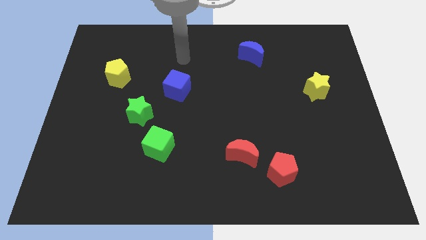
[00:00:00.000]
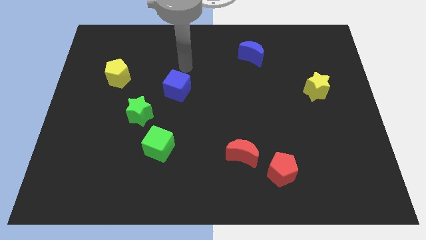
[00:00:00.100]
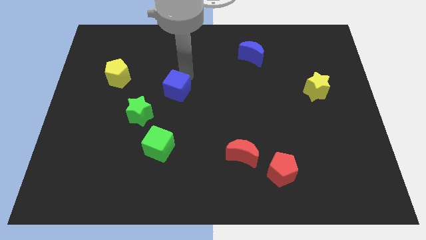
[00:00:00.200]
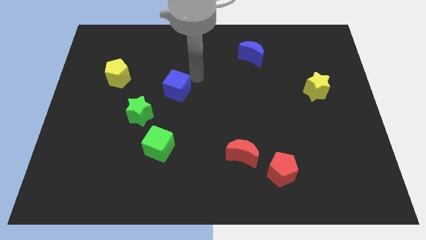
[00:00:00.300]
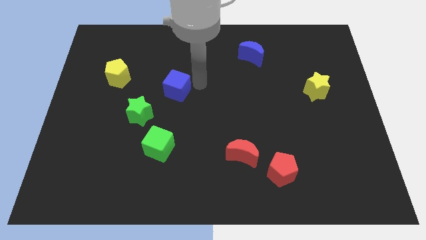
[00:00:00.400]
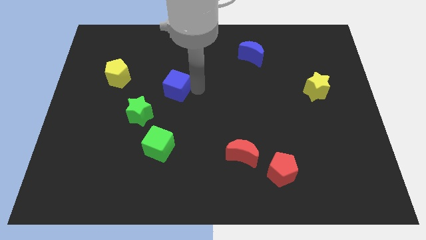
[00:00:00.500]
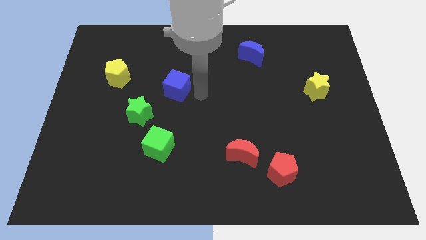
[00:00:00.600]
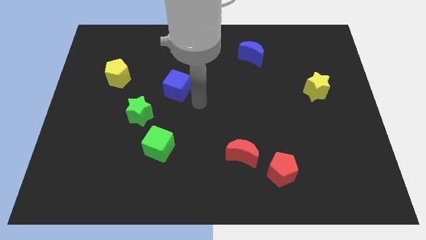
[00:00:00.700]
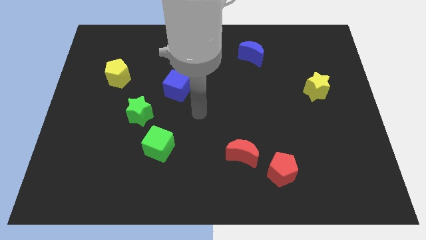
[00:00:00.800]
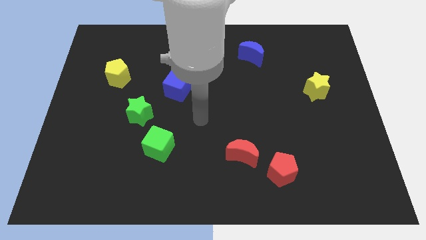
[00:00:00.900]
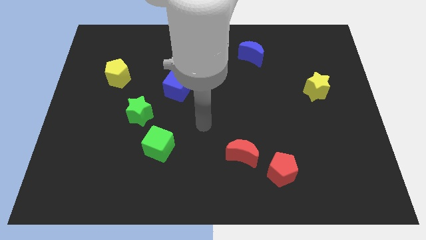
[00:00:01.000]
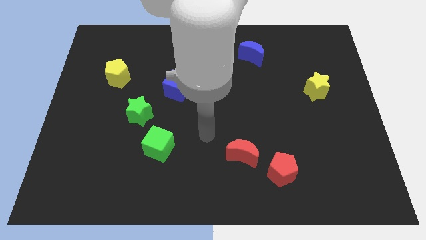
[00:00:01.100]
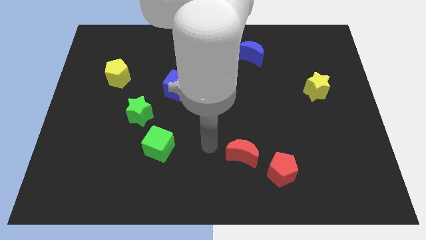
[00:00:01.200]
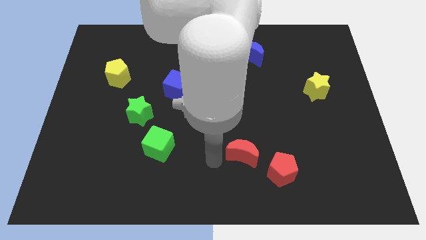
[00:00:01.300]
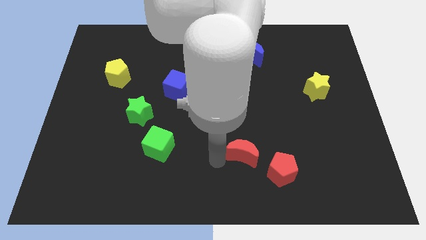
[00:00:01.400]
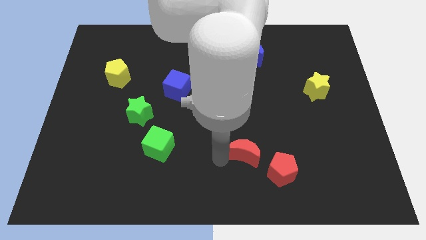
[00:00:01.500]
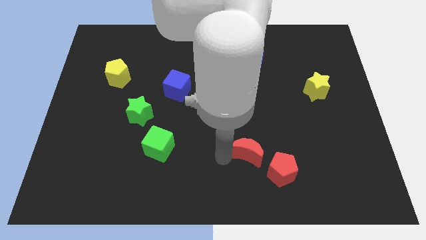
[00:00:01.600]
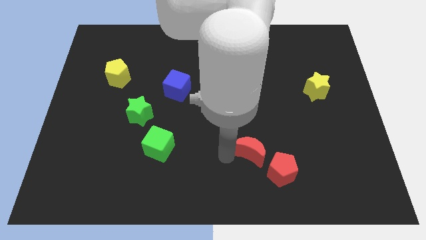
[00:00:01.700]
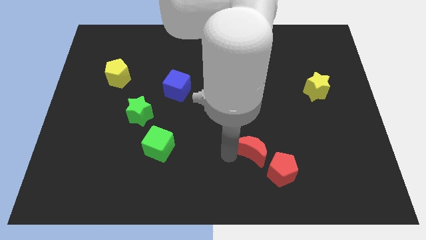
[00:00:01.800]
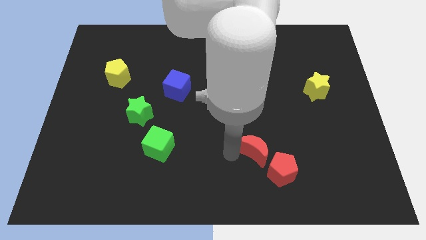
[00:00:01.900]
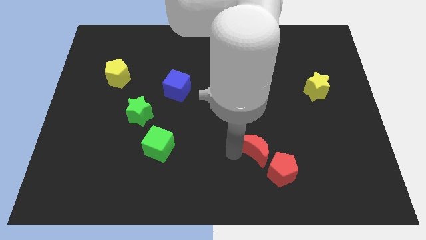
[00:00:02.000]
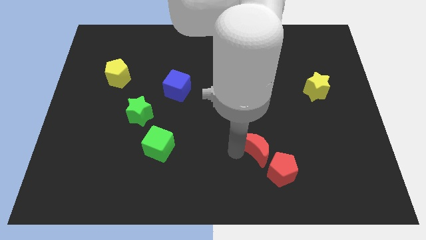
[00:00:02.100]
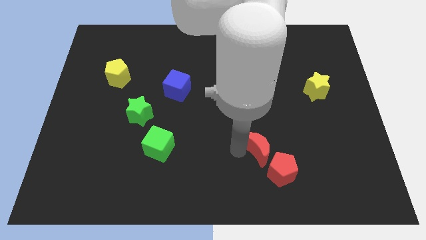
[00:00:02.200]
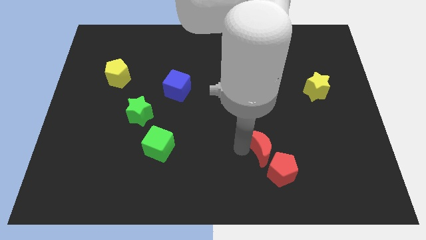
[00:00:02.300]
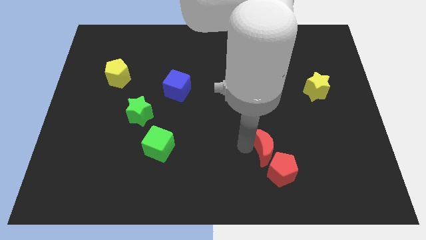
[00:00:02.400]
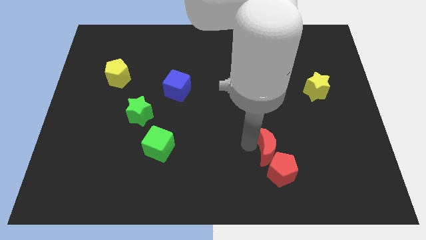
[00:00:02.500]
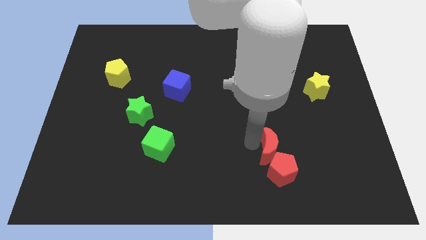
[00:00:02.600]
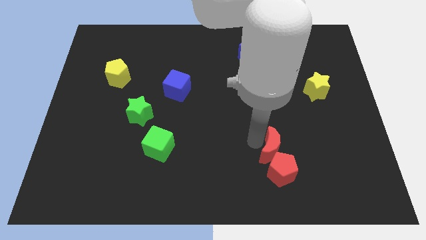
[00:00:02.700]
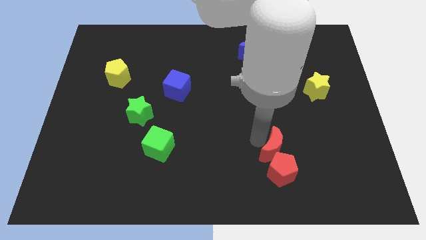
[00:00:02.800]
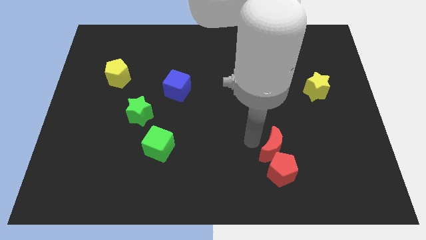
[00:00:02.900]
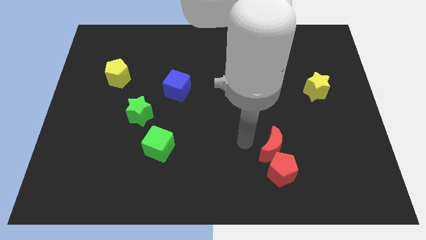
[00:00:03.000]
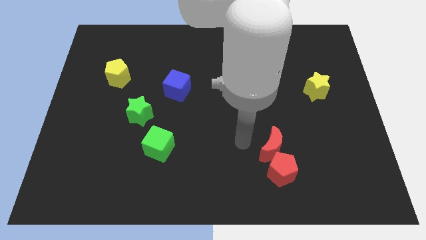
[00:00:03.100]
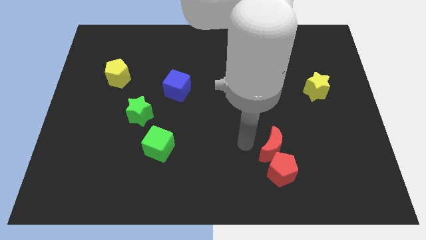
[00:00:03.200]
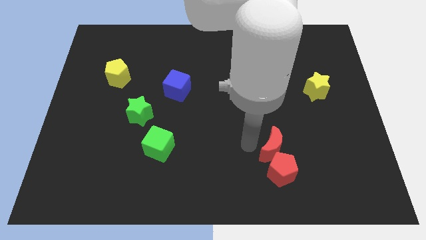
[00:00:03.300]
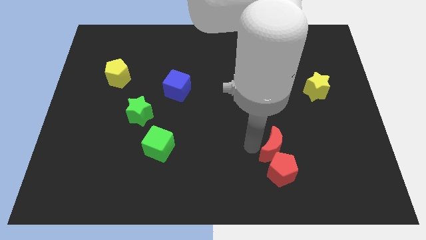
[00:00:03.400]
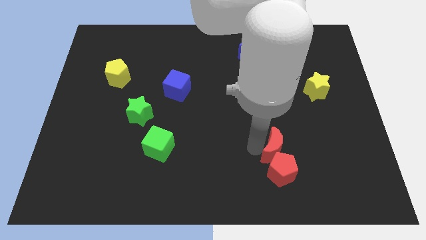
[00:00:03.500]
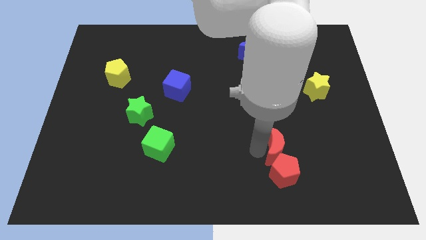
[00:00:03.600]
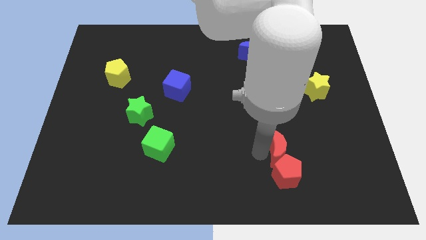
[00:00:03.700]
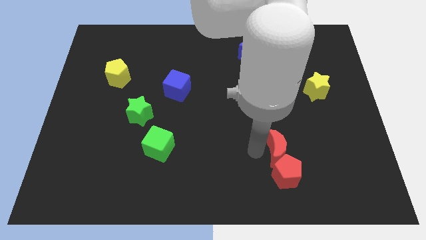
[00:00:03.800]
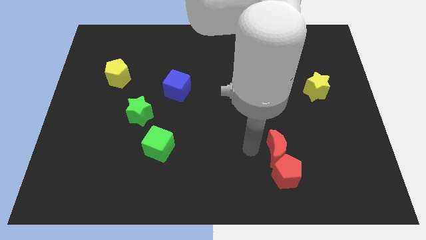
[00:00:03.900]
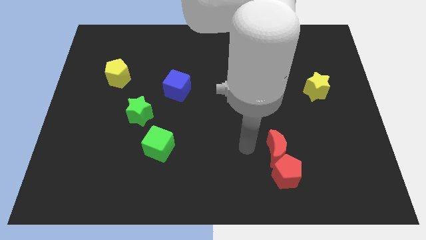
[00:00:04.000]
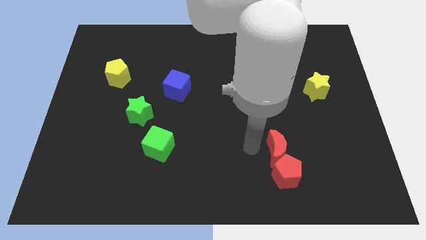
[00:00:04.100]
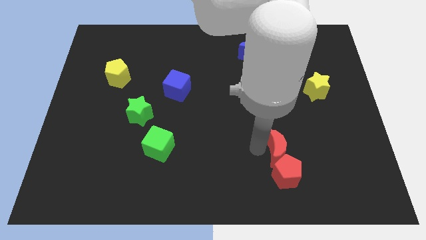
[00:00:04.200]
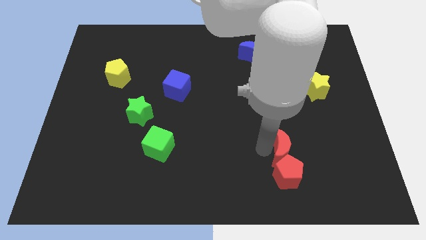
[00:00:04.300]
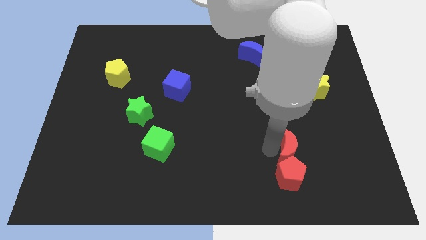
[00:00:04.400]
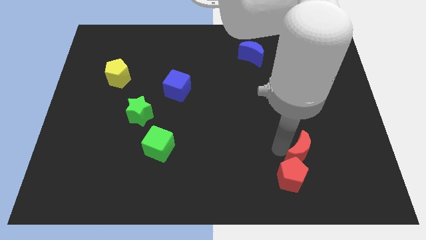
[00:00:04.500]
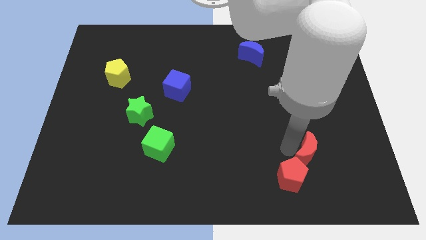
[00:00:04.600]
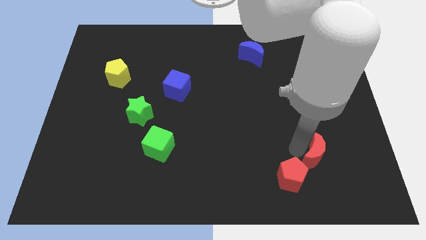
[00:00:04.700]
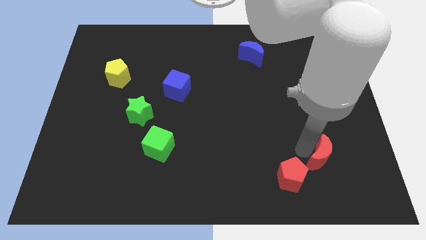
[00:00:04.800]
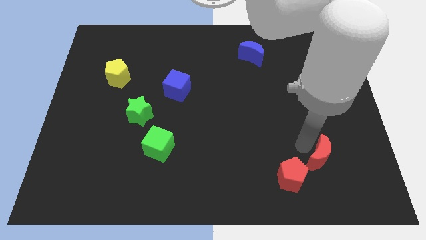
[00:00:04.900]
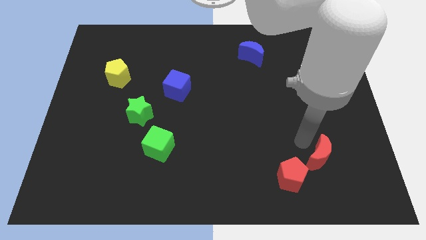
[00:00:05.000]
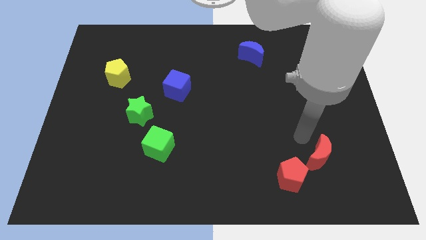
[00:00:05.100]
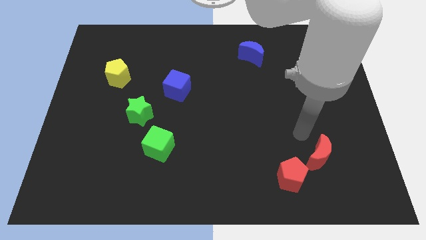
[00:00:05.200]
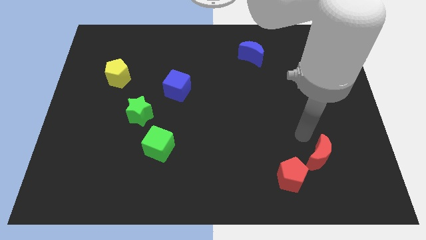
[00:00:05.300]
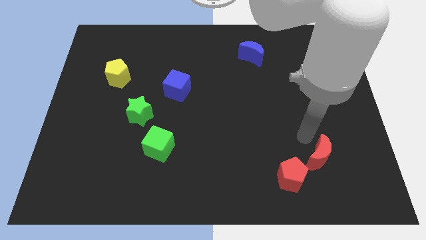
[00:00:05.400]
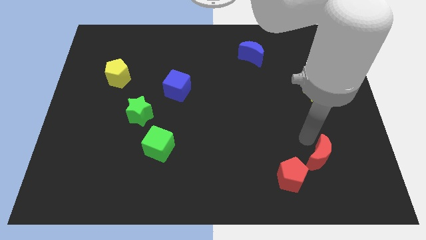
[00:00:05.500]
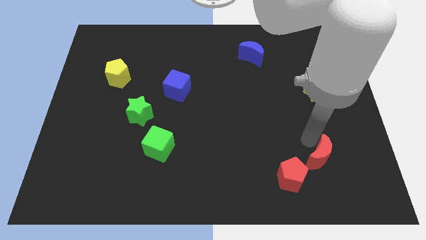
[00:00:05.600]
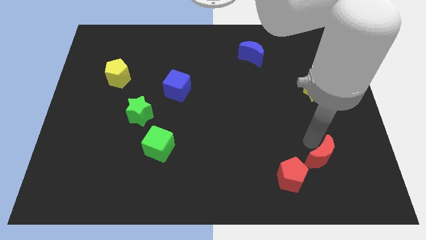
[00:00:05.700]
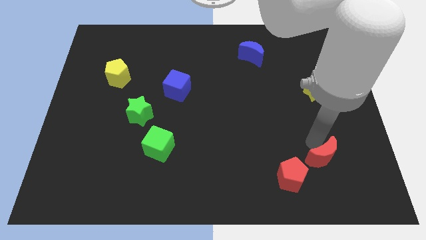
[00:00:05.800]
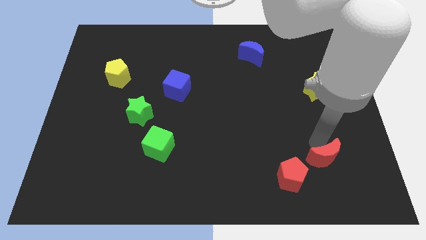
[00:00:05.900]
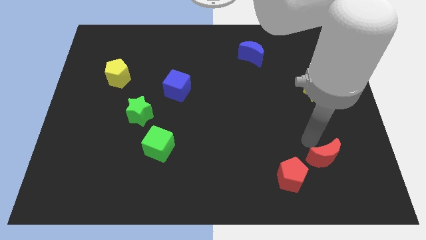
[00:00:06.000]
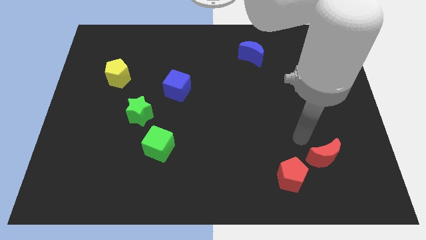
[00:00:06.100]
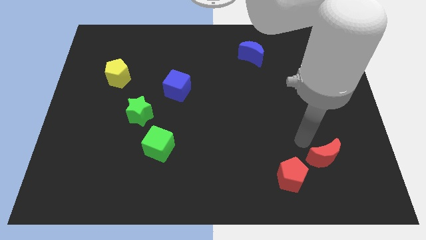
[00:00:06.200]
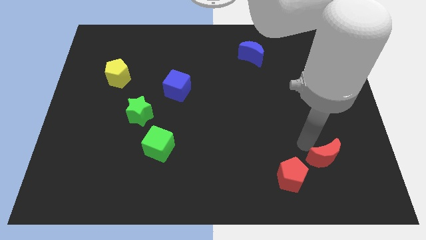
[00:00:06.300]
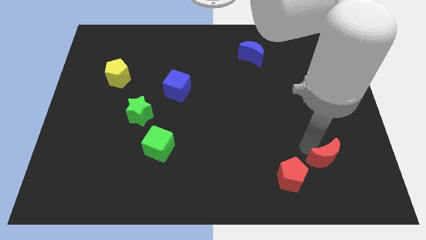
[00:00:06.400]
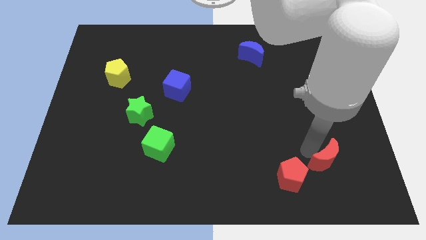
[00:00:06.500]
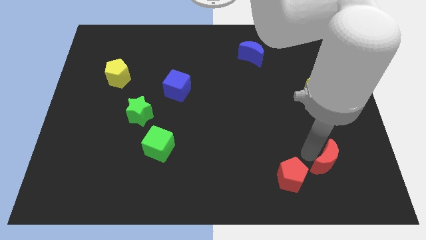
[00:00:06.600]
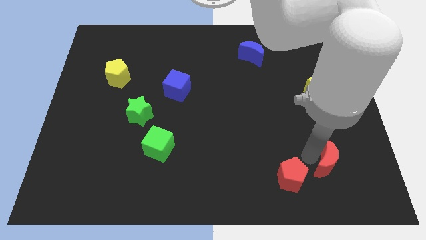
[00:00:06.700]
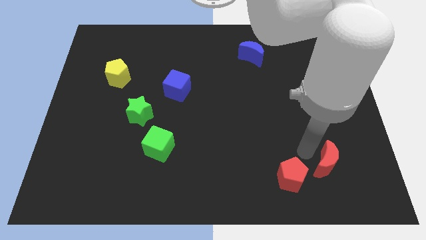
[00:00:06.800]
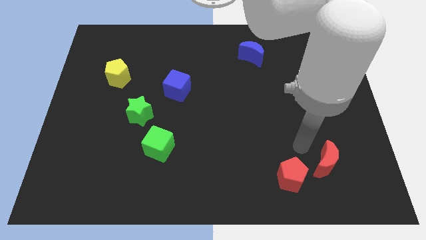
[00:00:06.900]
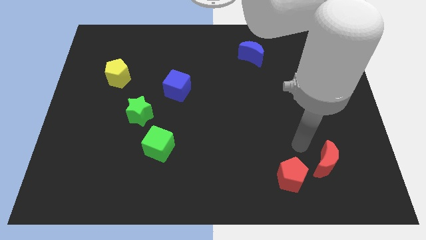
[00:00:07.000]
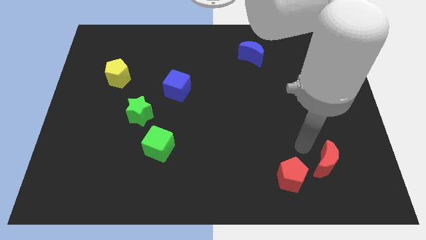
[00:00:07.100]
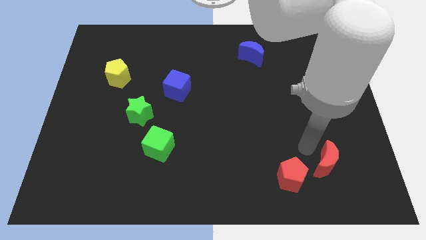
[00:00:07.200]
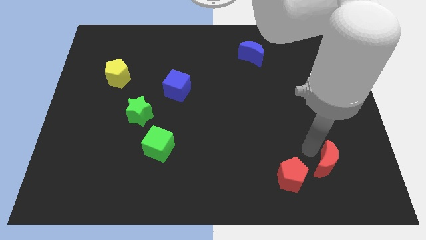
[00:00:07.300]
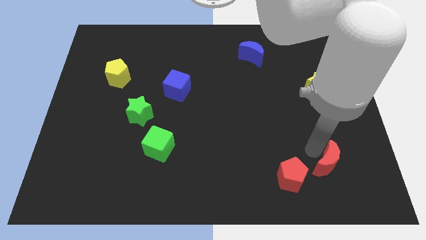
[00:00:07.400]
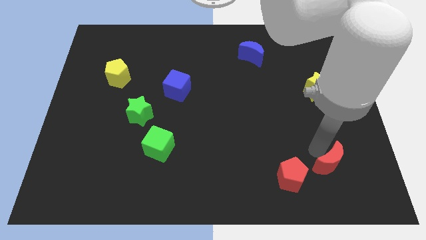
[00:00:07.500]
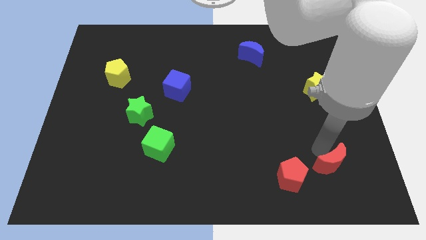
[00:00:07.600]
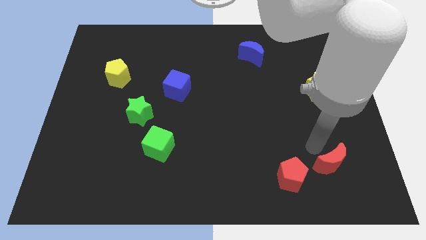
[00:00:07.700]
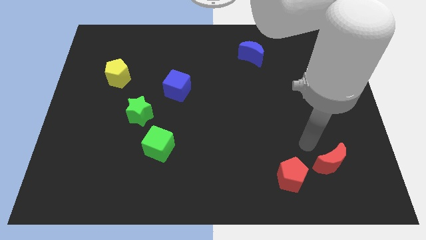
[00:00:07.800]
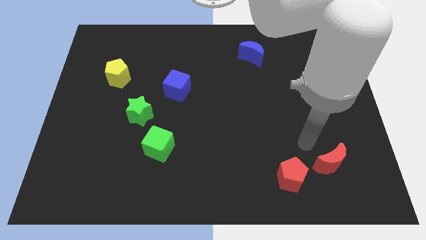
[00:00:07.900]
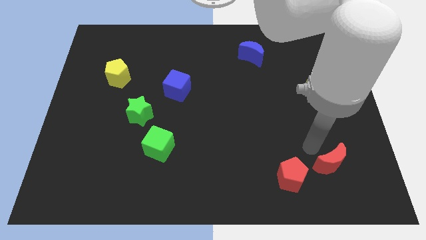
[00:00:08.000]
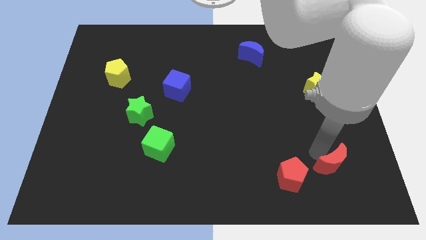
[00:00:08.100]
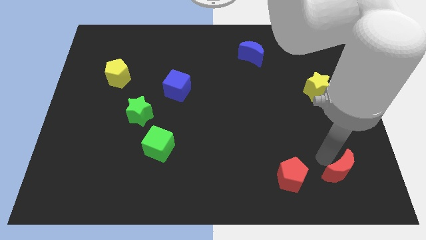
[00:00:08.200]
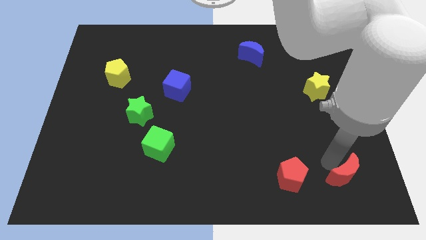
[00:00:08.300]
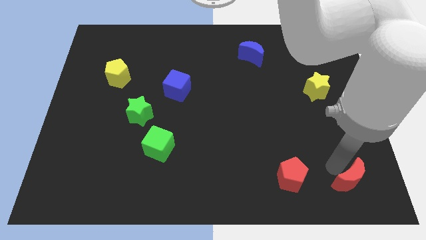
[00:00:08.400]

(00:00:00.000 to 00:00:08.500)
put the red moon to the bottom right
